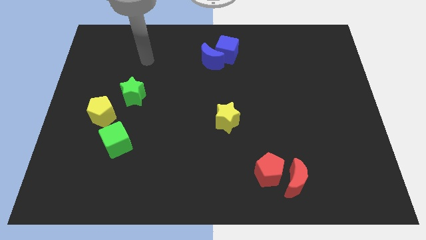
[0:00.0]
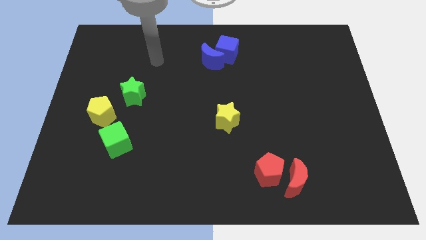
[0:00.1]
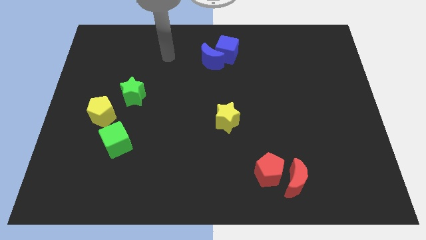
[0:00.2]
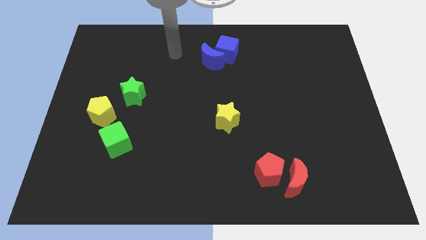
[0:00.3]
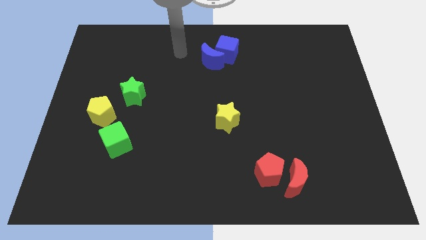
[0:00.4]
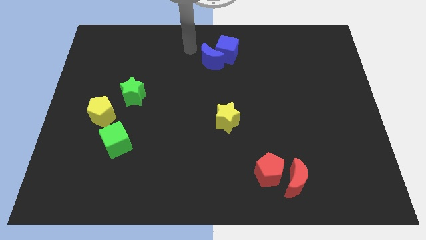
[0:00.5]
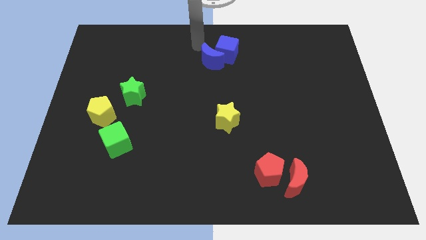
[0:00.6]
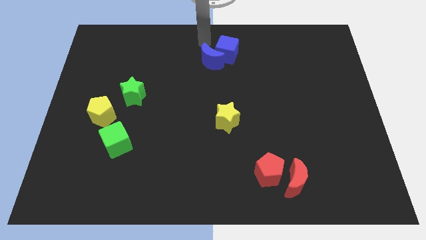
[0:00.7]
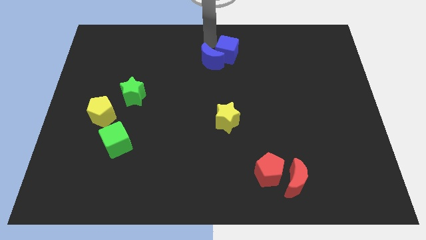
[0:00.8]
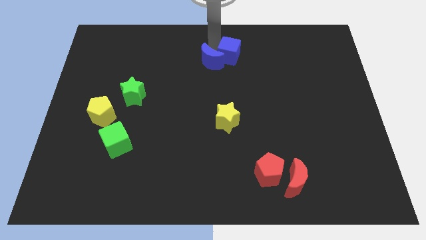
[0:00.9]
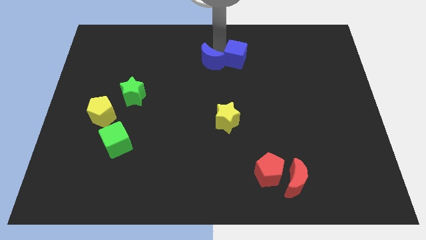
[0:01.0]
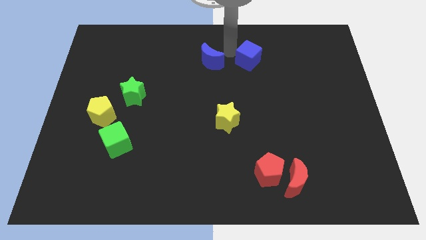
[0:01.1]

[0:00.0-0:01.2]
move the blue moon away from the blue cube

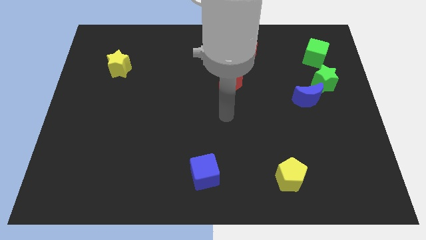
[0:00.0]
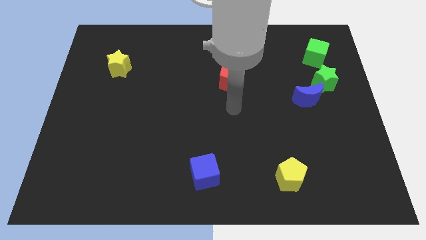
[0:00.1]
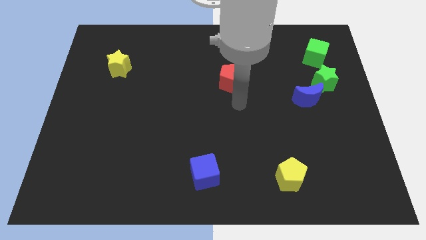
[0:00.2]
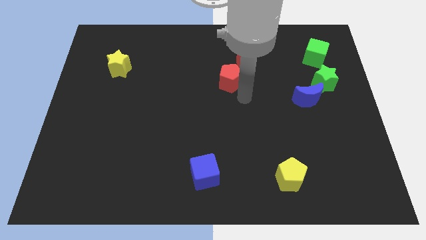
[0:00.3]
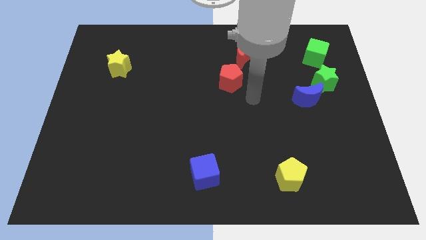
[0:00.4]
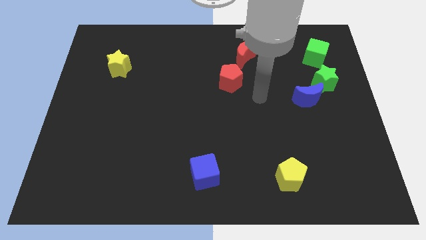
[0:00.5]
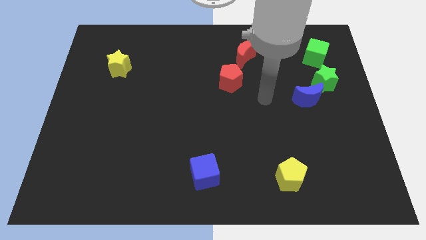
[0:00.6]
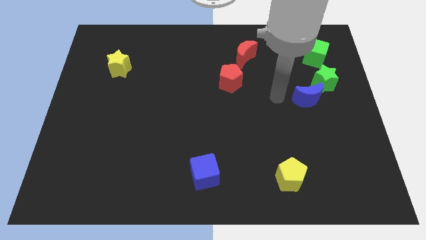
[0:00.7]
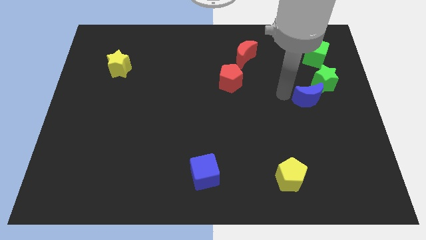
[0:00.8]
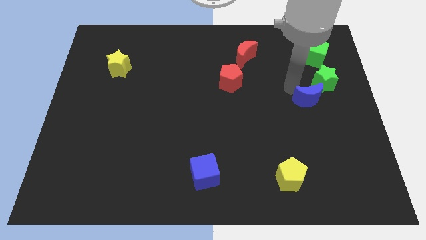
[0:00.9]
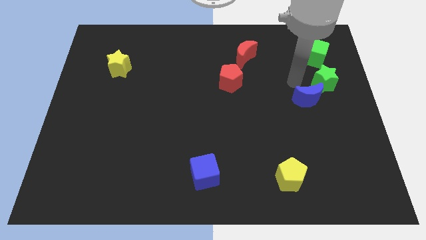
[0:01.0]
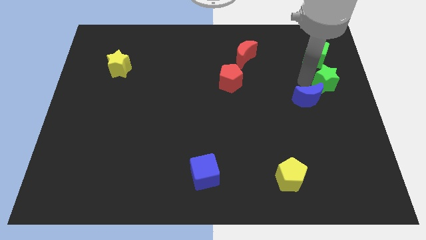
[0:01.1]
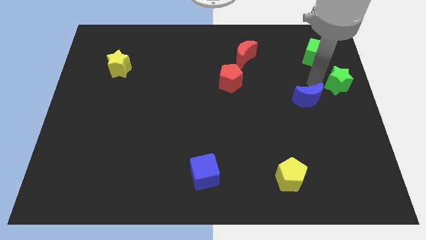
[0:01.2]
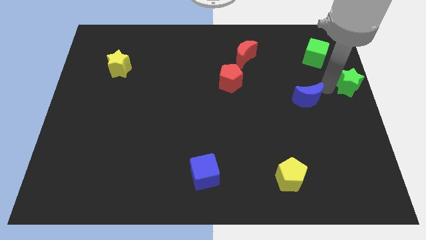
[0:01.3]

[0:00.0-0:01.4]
move the blue moon away from the green star

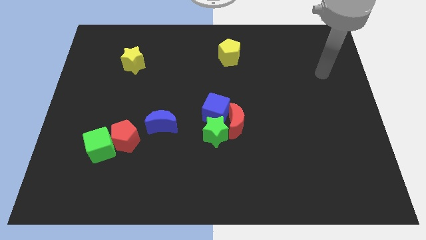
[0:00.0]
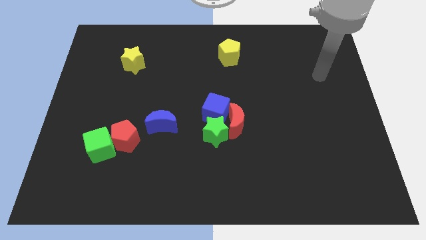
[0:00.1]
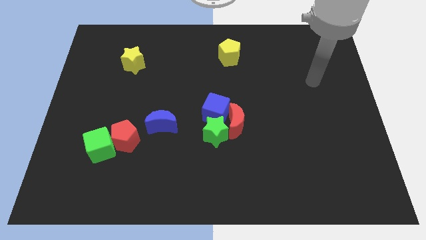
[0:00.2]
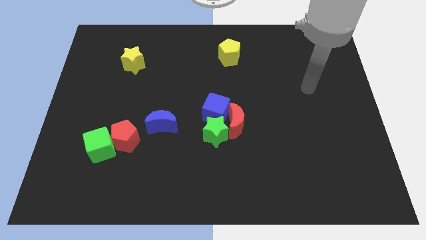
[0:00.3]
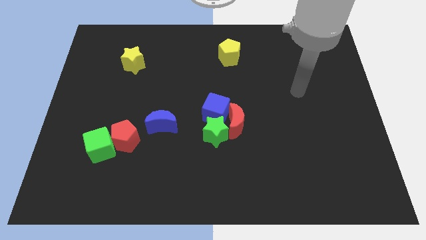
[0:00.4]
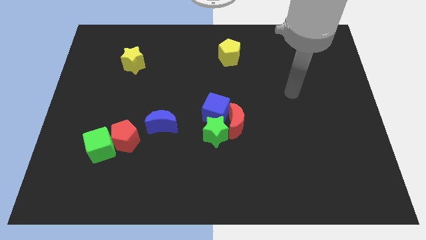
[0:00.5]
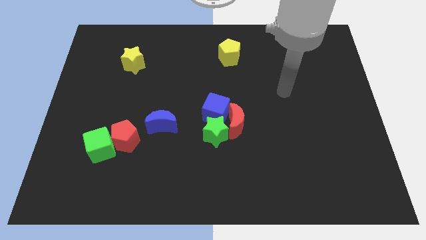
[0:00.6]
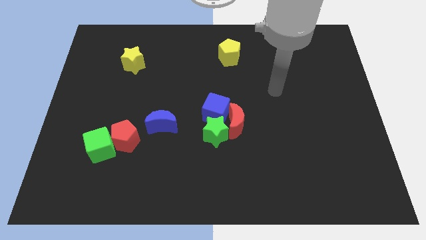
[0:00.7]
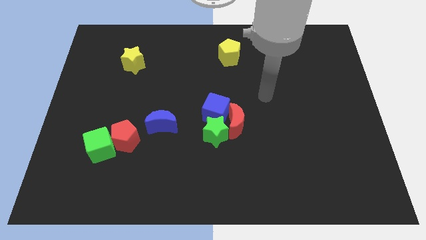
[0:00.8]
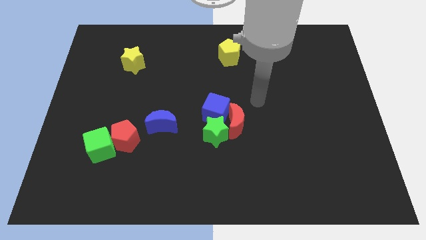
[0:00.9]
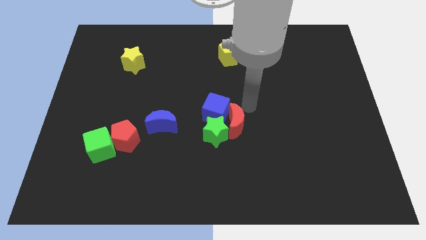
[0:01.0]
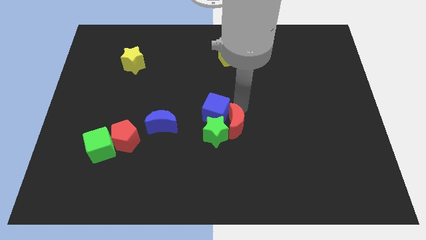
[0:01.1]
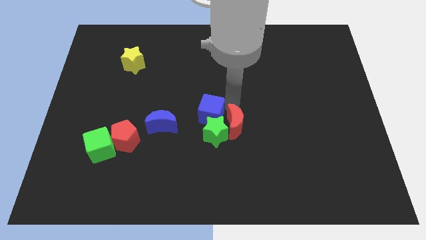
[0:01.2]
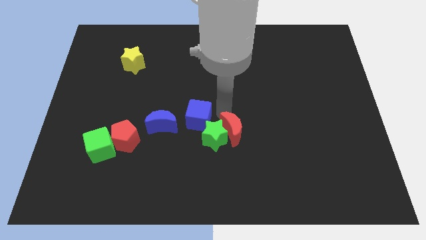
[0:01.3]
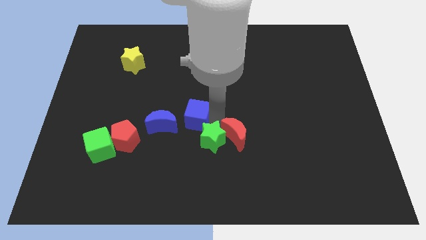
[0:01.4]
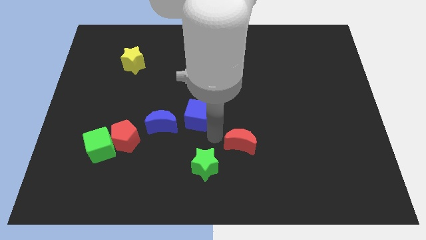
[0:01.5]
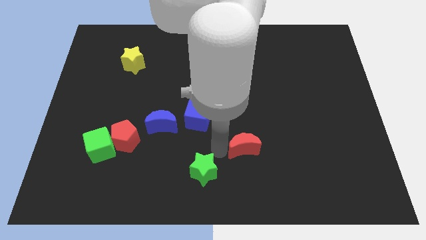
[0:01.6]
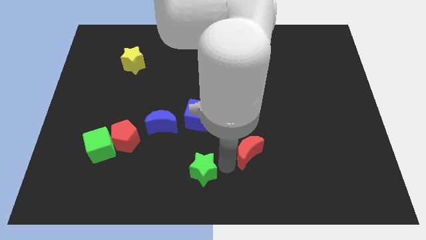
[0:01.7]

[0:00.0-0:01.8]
move the red moon away from the green star and blue cube

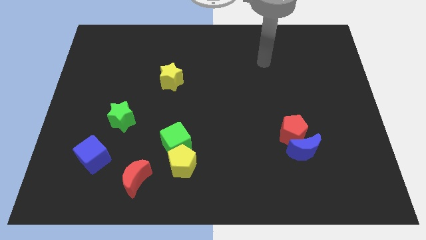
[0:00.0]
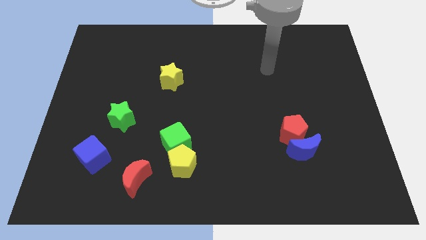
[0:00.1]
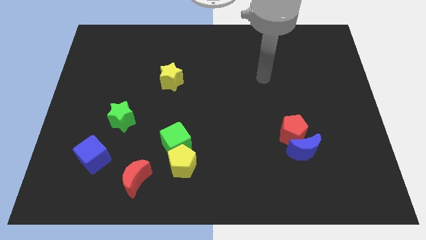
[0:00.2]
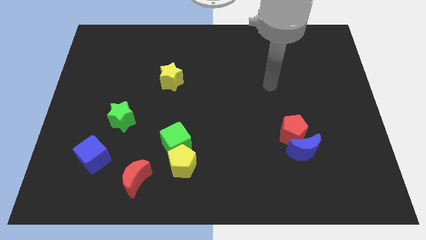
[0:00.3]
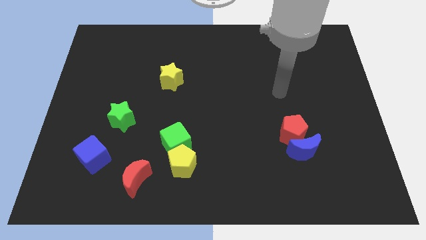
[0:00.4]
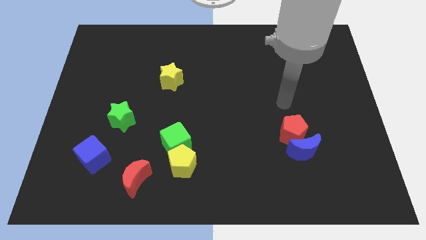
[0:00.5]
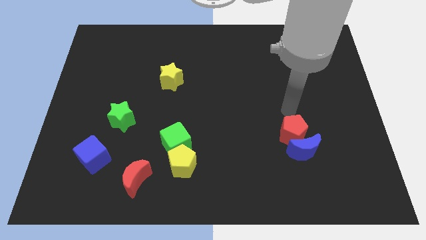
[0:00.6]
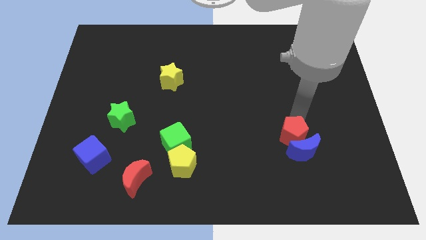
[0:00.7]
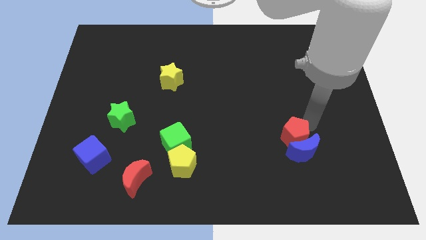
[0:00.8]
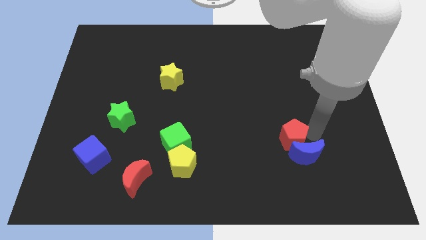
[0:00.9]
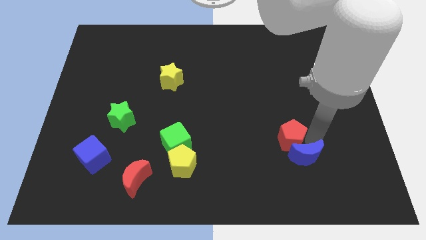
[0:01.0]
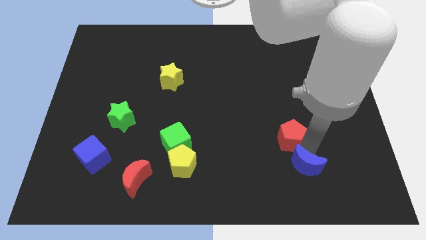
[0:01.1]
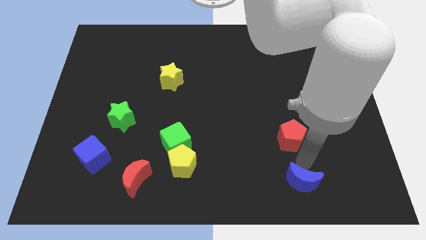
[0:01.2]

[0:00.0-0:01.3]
move the red pentagon away from the blue moon

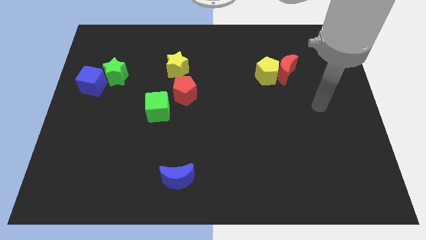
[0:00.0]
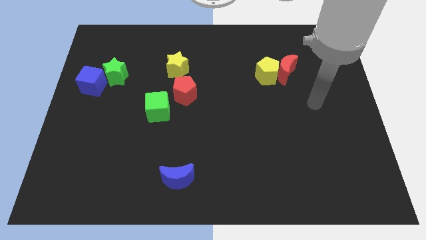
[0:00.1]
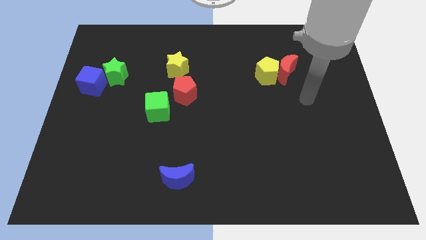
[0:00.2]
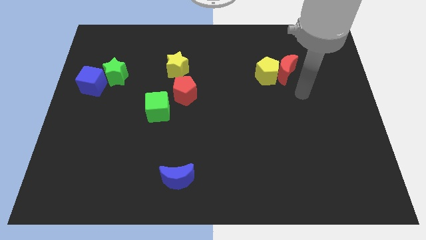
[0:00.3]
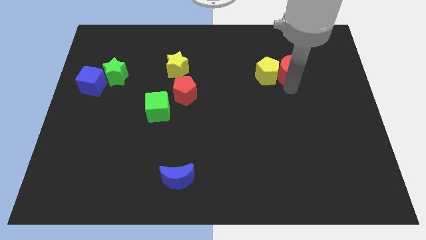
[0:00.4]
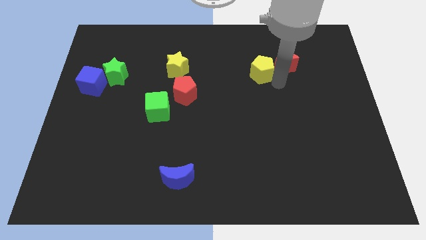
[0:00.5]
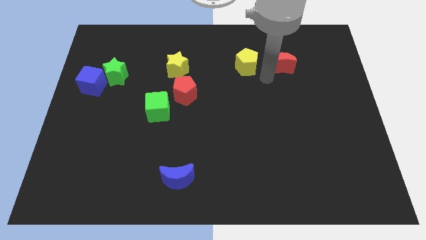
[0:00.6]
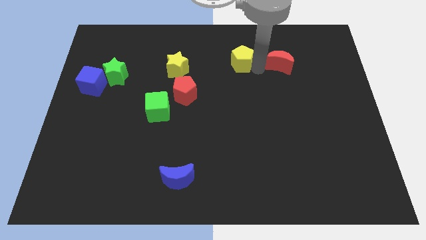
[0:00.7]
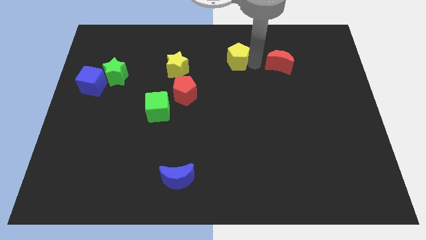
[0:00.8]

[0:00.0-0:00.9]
pull the red moon apart from the yellow pentagon

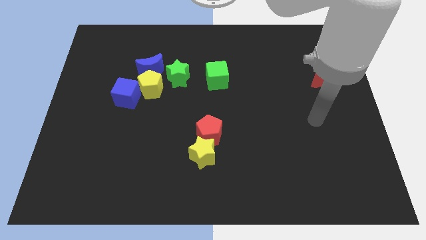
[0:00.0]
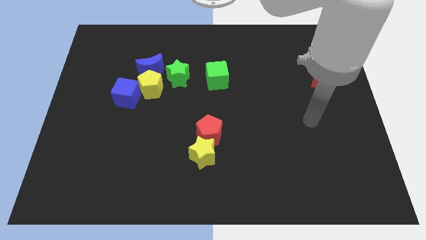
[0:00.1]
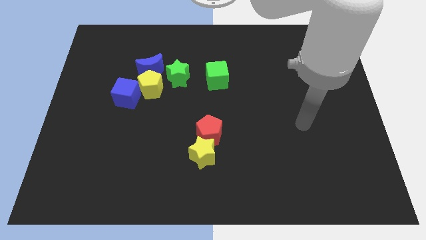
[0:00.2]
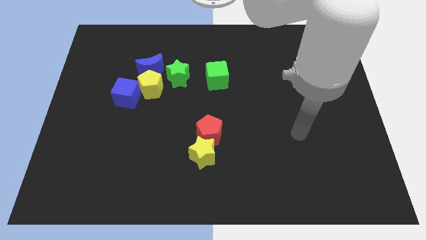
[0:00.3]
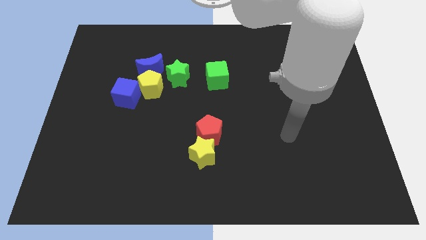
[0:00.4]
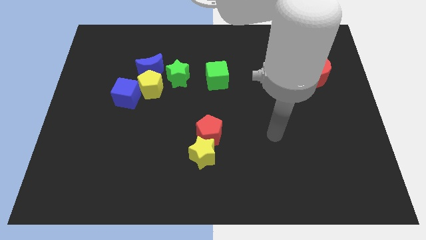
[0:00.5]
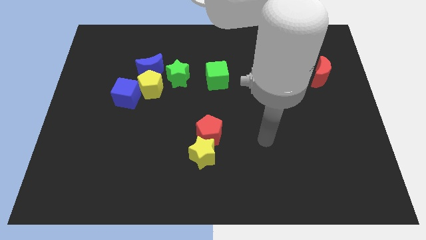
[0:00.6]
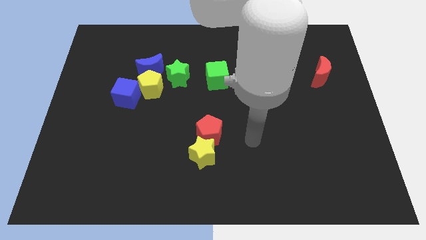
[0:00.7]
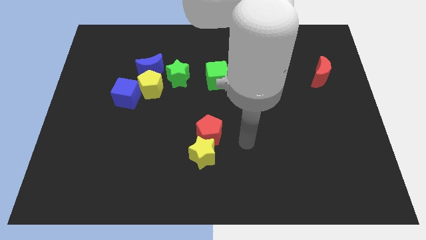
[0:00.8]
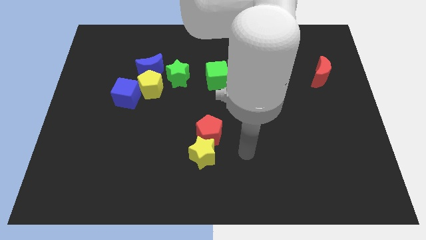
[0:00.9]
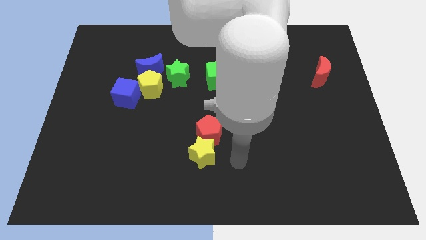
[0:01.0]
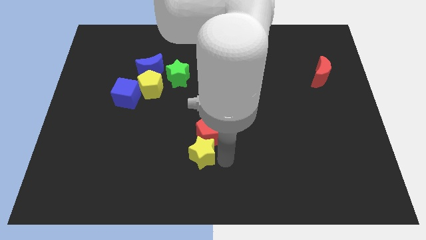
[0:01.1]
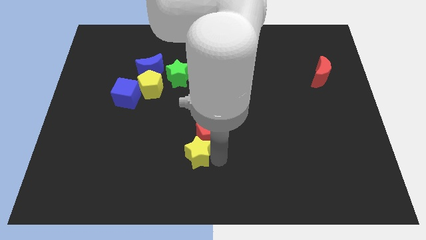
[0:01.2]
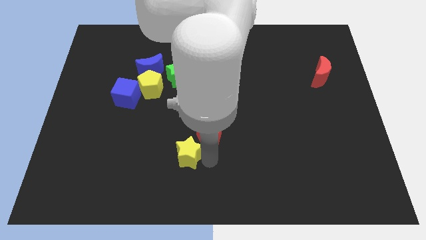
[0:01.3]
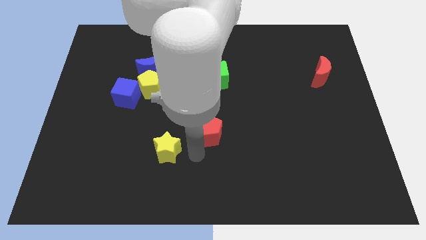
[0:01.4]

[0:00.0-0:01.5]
separate the red pentagon from the yellow star

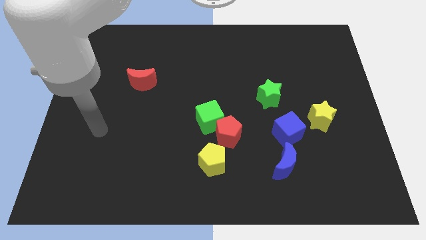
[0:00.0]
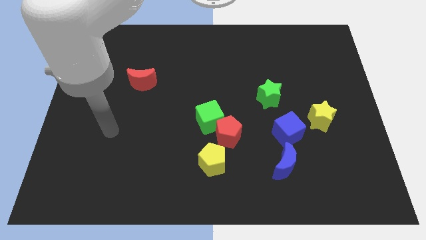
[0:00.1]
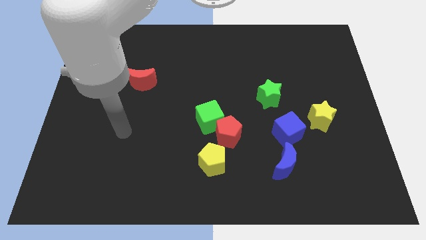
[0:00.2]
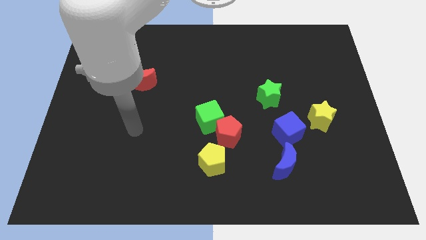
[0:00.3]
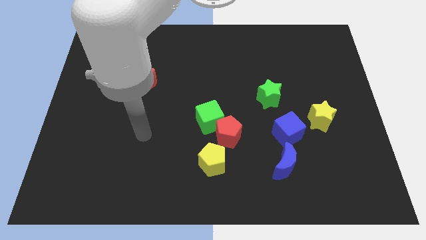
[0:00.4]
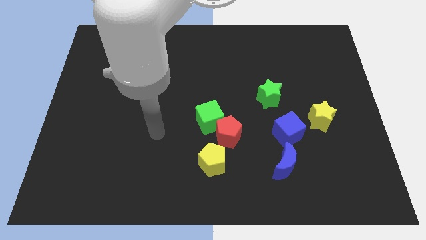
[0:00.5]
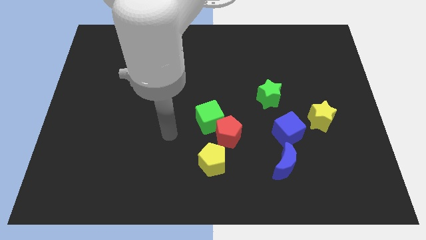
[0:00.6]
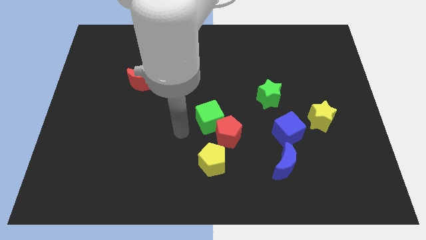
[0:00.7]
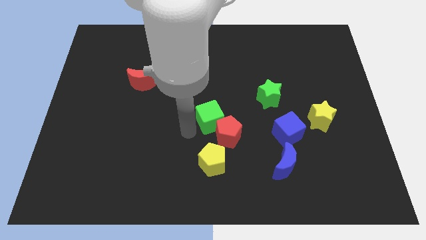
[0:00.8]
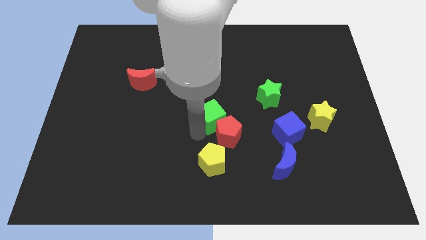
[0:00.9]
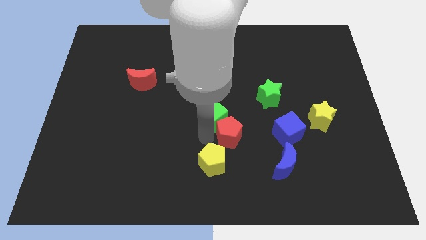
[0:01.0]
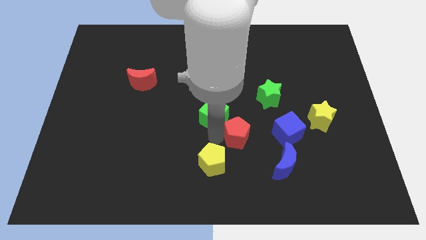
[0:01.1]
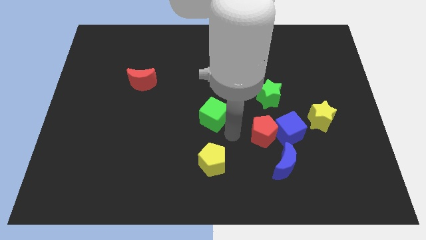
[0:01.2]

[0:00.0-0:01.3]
pull the green cube apart from the red pentagon

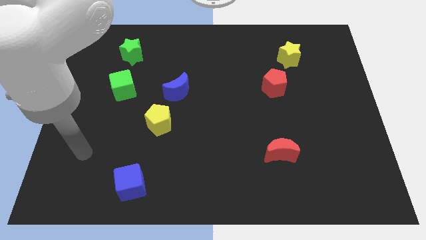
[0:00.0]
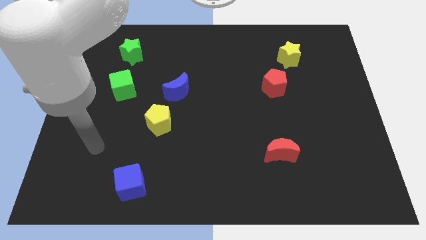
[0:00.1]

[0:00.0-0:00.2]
move the blue moon away from the yellow pentagon
